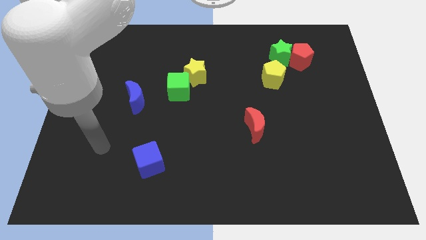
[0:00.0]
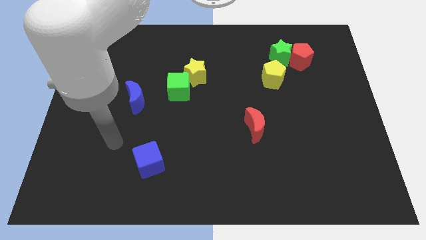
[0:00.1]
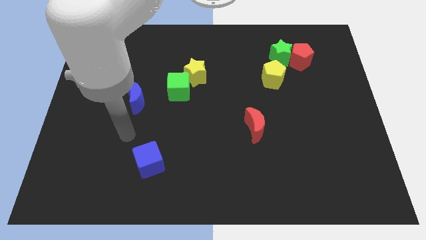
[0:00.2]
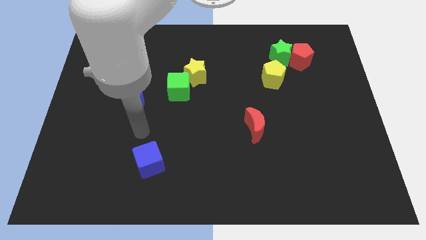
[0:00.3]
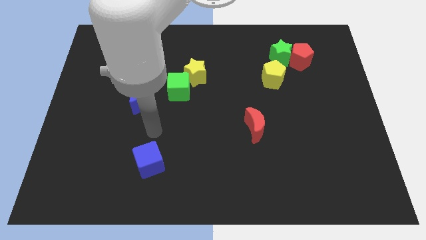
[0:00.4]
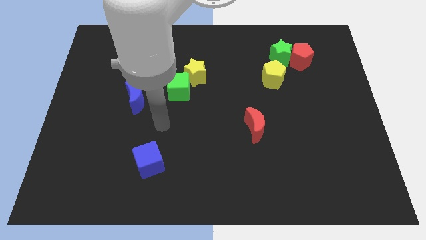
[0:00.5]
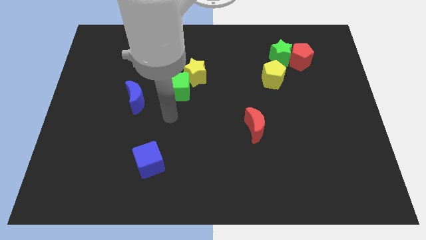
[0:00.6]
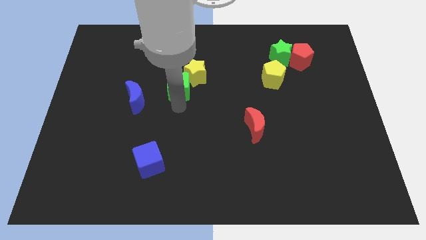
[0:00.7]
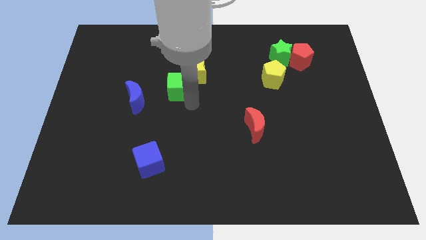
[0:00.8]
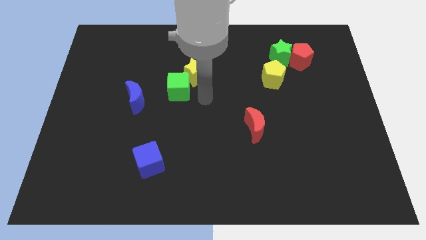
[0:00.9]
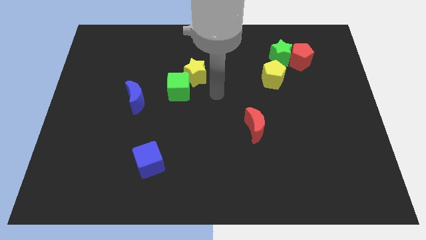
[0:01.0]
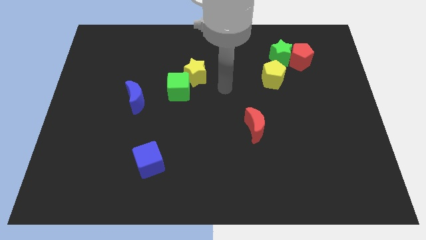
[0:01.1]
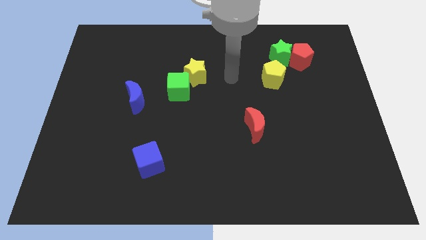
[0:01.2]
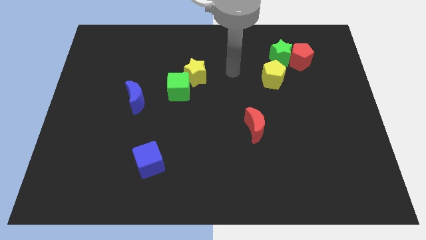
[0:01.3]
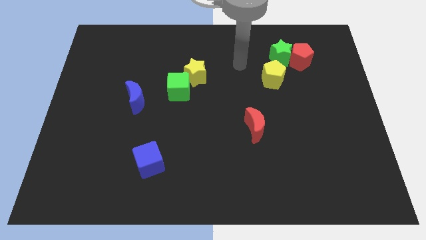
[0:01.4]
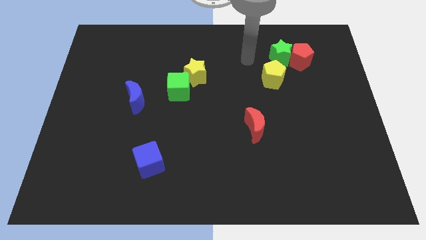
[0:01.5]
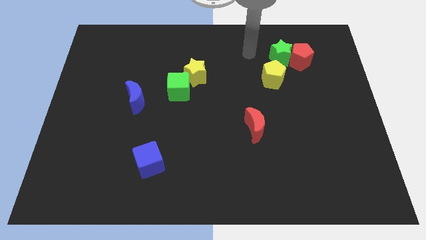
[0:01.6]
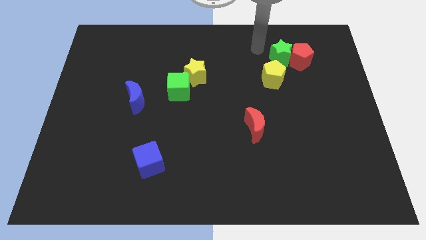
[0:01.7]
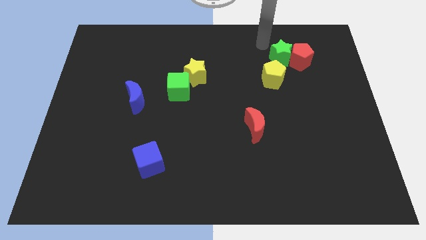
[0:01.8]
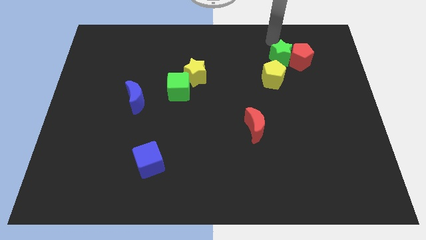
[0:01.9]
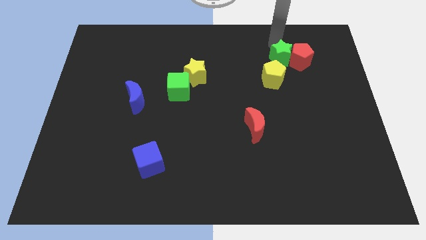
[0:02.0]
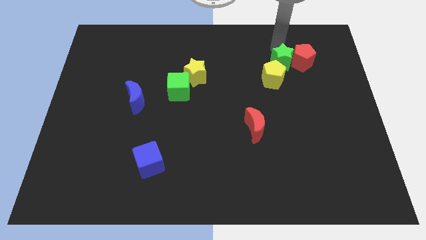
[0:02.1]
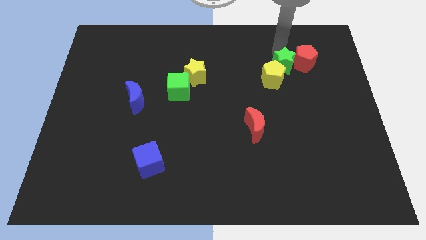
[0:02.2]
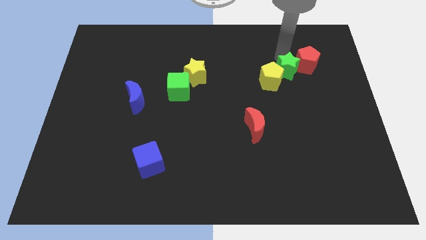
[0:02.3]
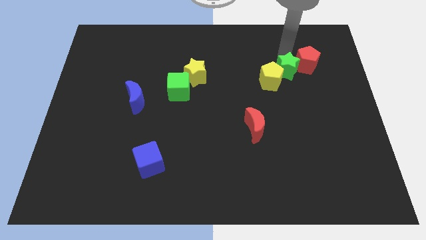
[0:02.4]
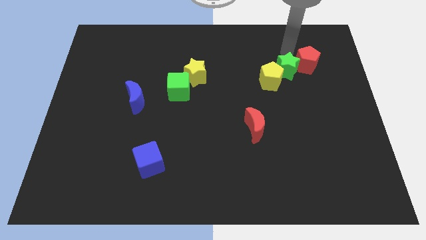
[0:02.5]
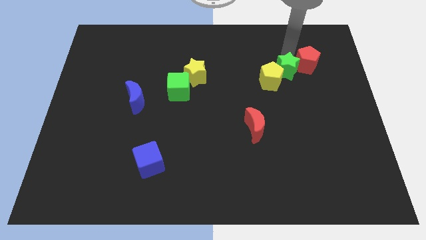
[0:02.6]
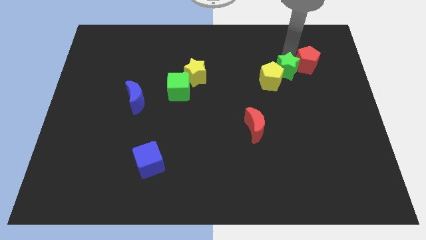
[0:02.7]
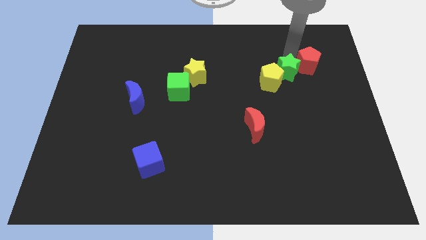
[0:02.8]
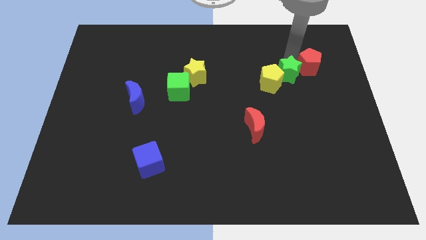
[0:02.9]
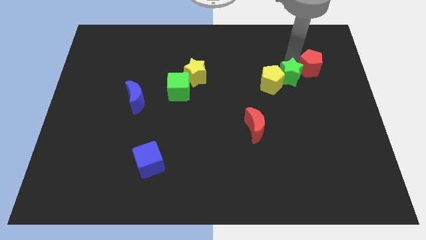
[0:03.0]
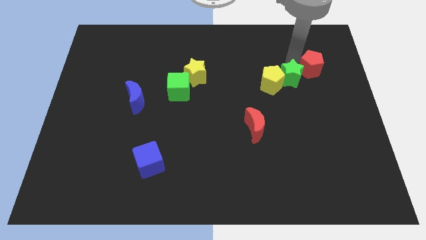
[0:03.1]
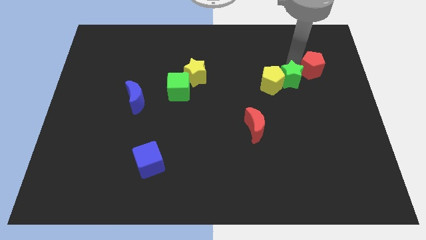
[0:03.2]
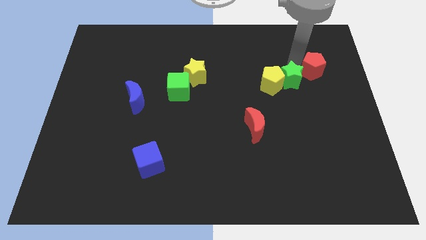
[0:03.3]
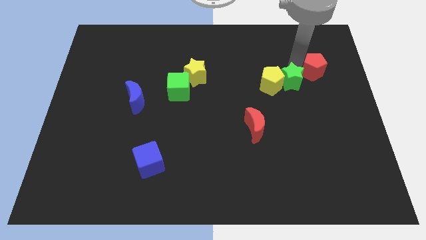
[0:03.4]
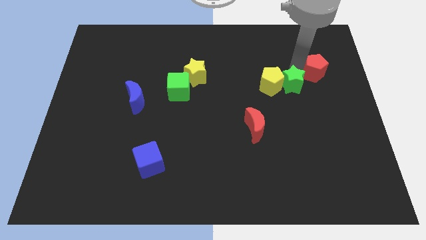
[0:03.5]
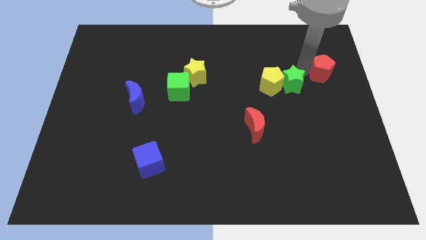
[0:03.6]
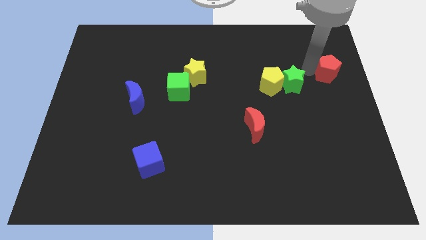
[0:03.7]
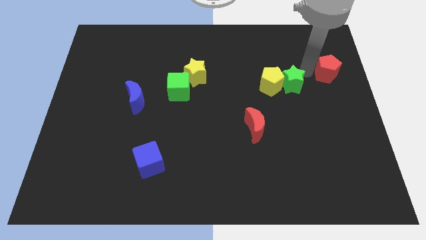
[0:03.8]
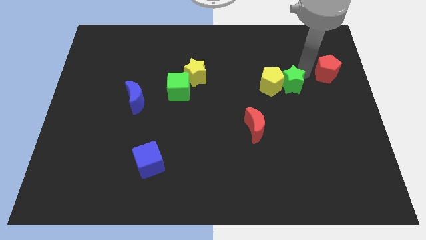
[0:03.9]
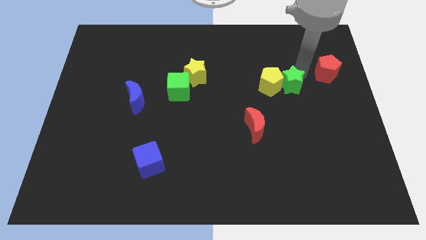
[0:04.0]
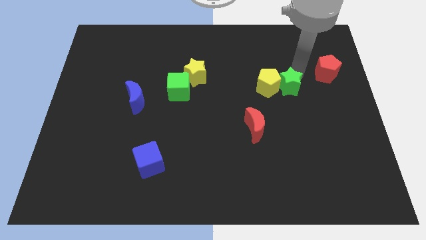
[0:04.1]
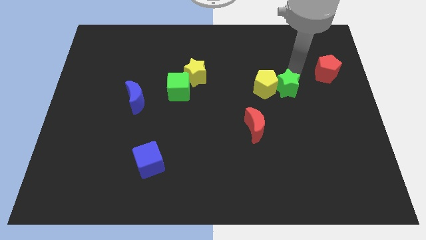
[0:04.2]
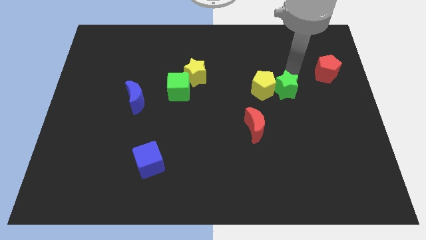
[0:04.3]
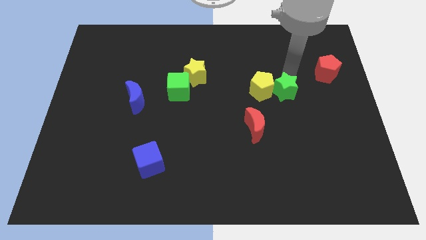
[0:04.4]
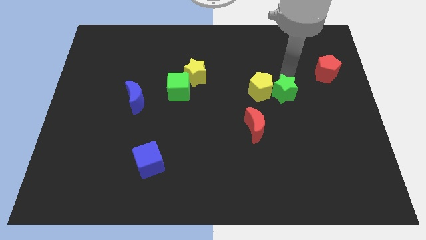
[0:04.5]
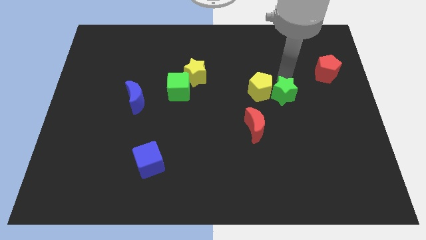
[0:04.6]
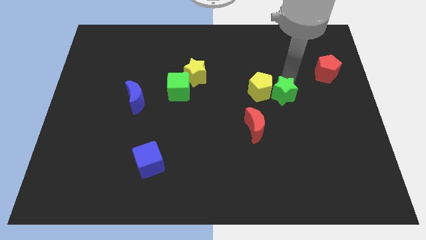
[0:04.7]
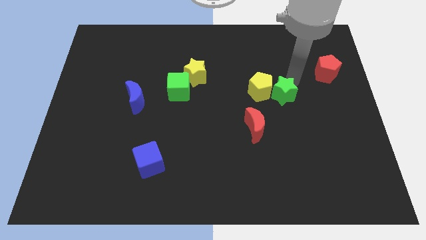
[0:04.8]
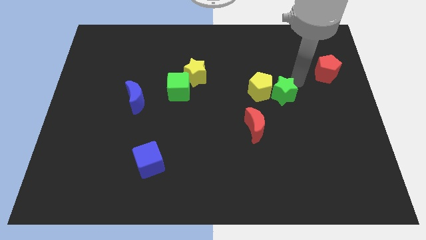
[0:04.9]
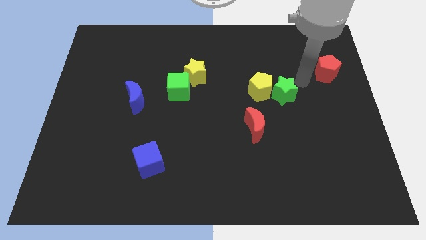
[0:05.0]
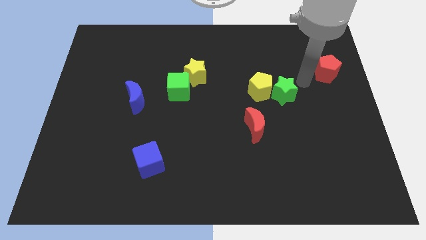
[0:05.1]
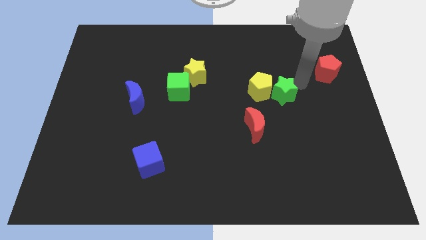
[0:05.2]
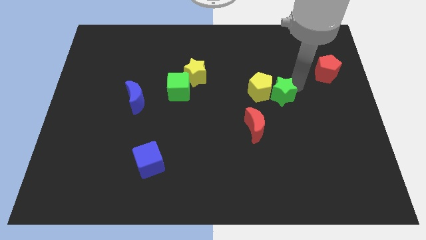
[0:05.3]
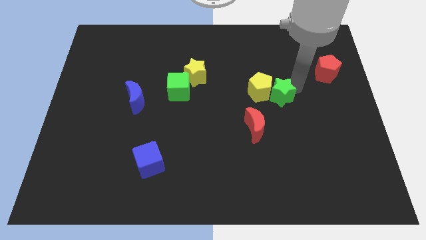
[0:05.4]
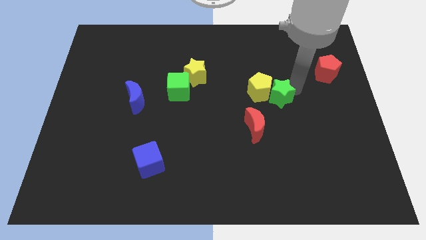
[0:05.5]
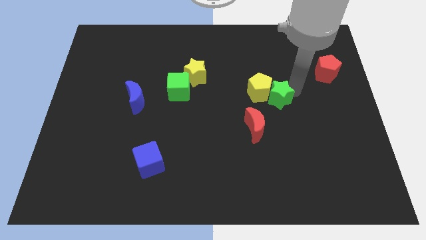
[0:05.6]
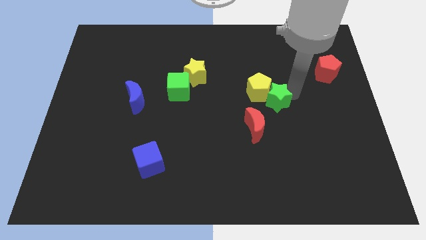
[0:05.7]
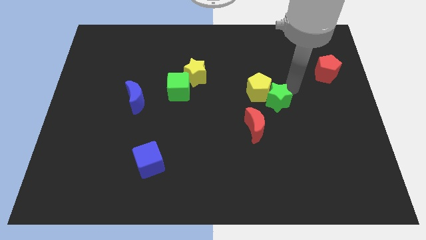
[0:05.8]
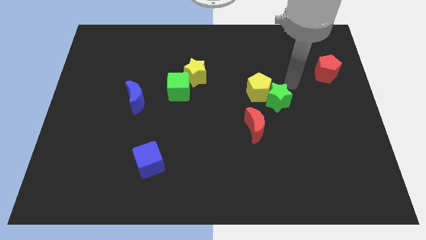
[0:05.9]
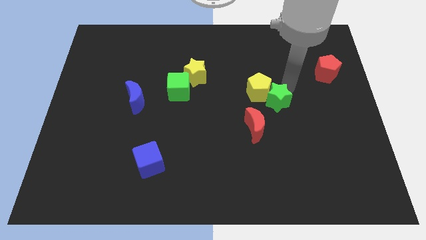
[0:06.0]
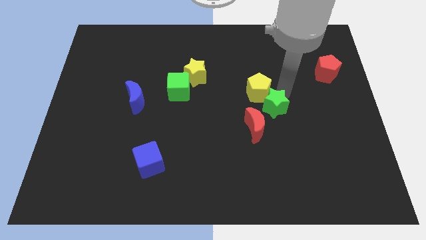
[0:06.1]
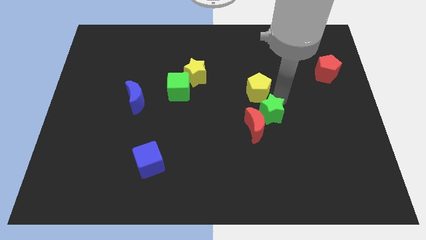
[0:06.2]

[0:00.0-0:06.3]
put the green star close to the red moon

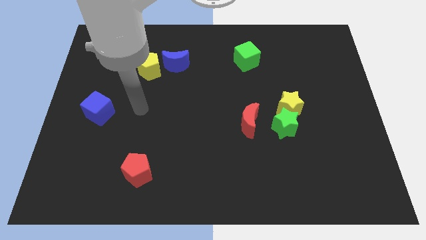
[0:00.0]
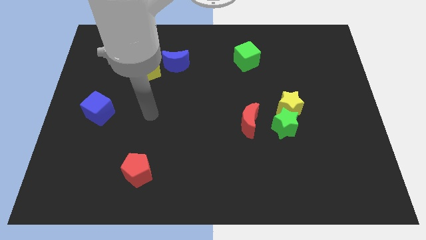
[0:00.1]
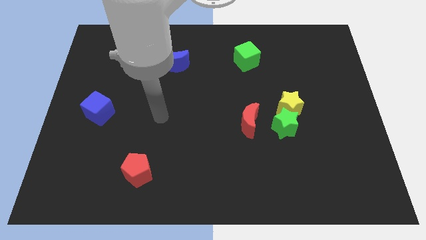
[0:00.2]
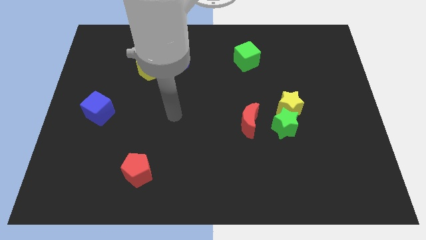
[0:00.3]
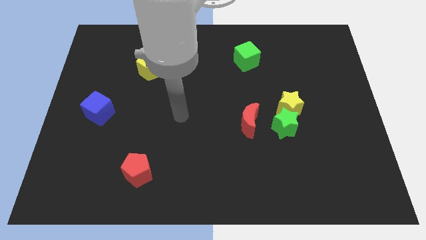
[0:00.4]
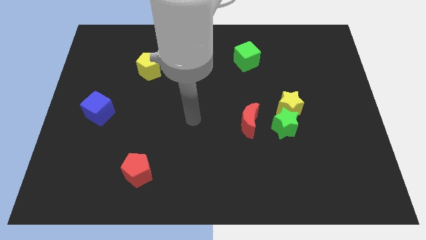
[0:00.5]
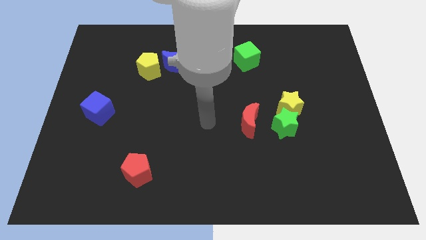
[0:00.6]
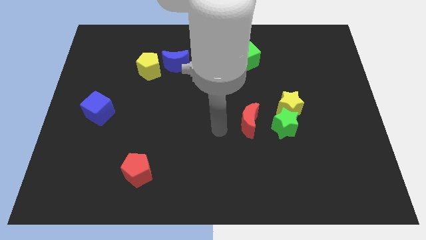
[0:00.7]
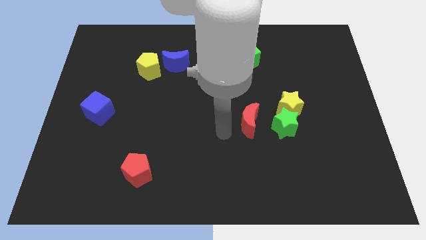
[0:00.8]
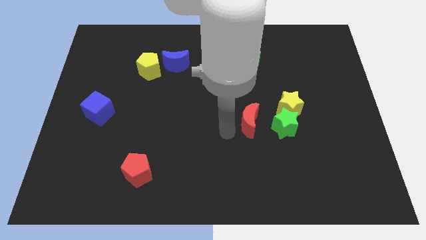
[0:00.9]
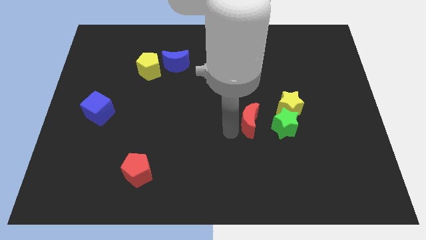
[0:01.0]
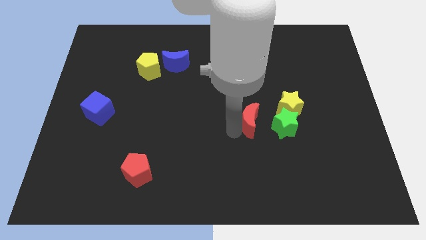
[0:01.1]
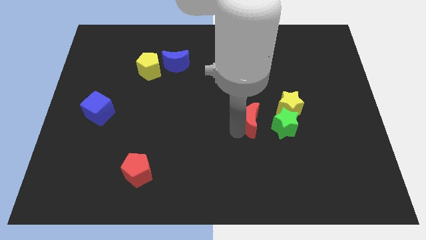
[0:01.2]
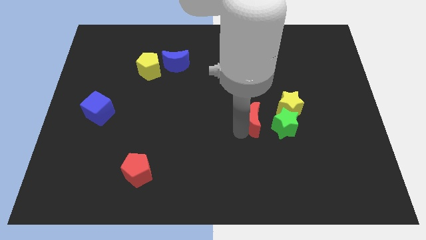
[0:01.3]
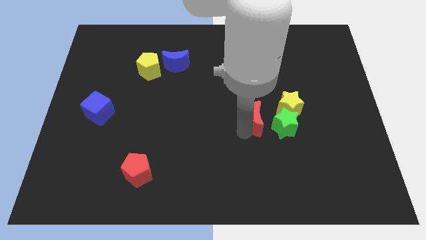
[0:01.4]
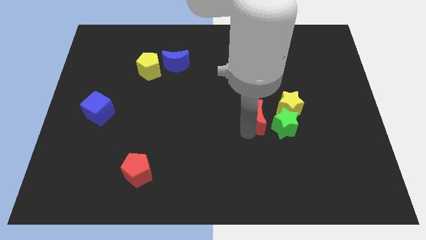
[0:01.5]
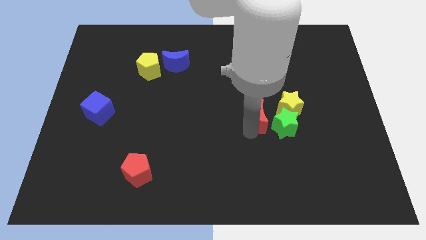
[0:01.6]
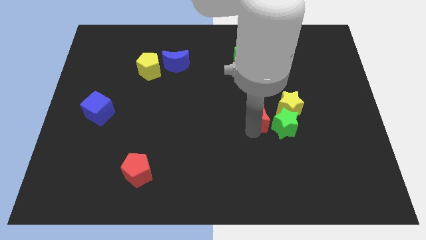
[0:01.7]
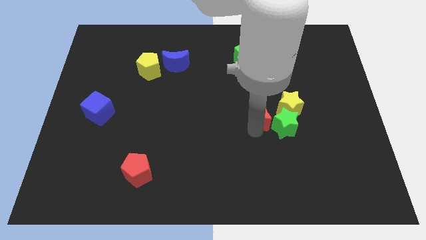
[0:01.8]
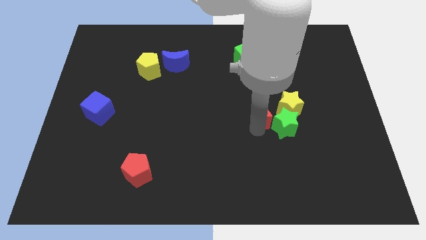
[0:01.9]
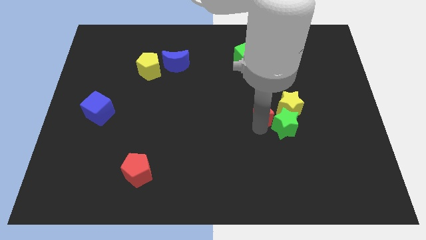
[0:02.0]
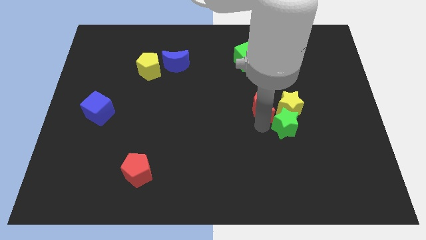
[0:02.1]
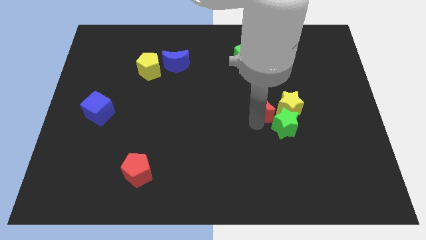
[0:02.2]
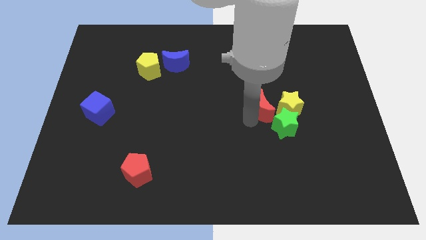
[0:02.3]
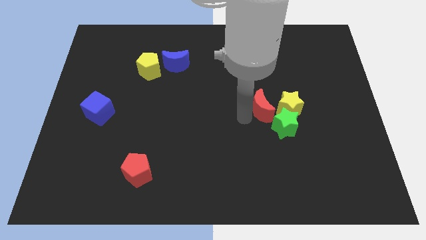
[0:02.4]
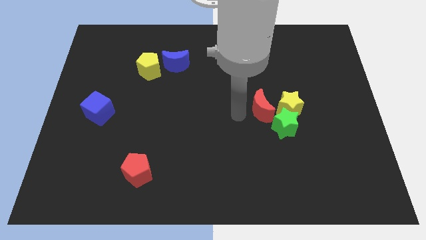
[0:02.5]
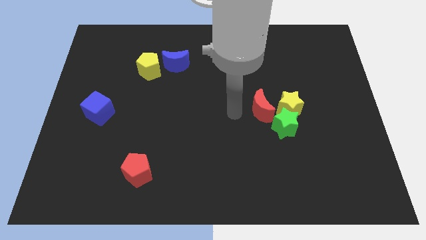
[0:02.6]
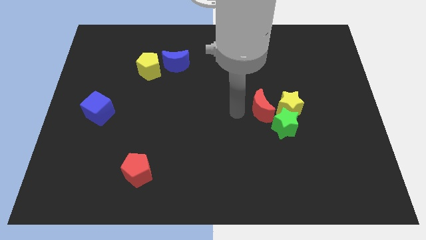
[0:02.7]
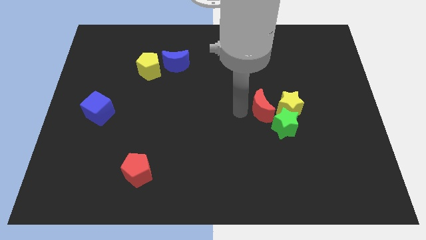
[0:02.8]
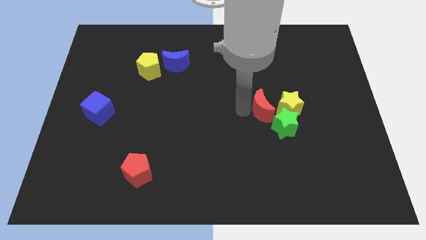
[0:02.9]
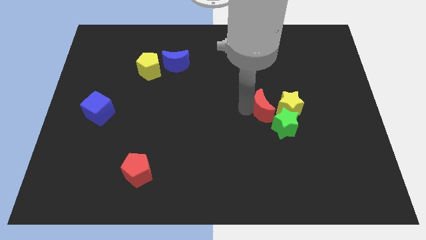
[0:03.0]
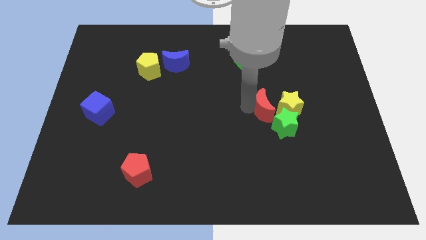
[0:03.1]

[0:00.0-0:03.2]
push the red moon close to the yellow star
